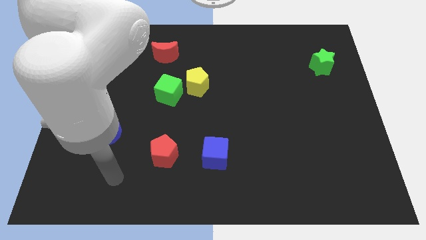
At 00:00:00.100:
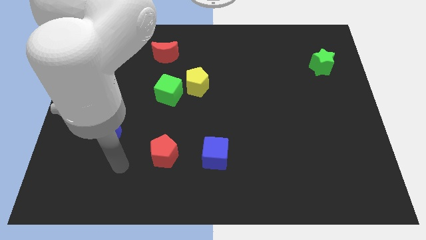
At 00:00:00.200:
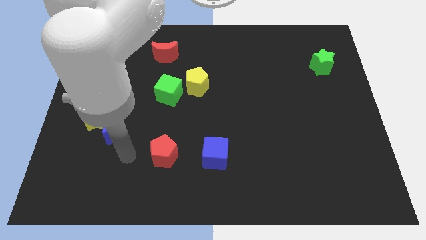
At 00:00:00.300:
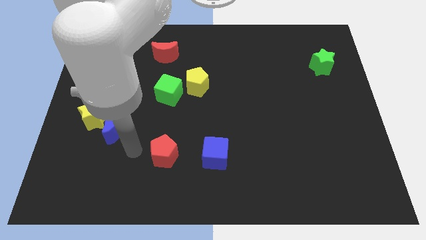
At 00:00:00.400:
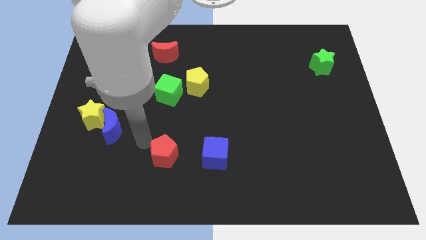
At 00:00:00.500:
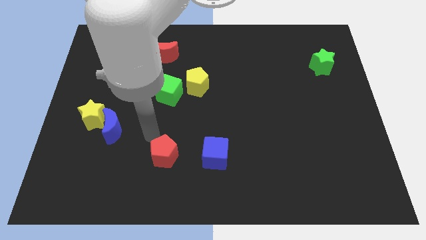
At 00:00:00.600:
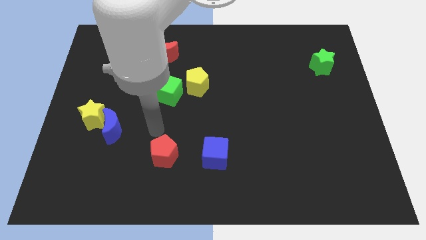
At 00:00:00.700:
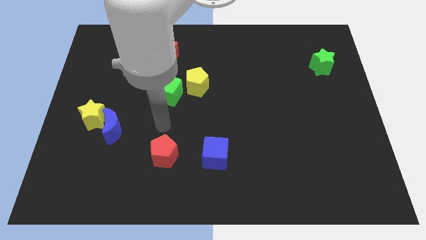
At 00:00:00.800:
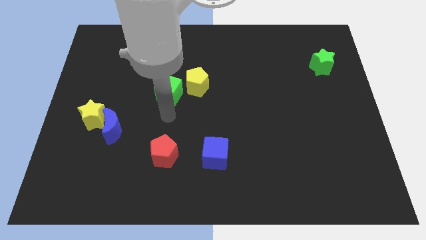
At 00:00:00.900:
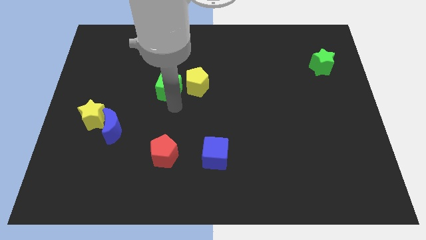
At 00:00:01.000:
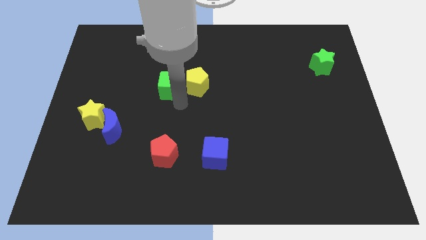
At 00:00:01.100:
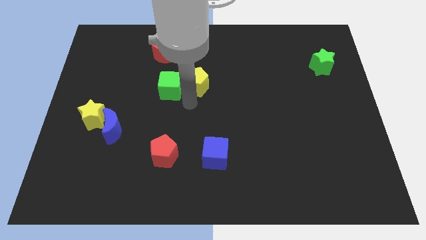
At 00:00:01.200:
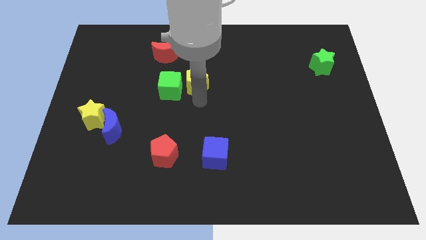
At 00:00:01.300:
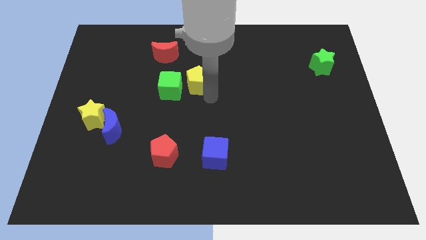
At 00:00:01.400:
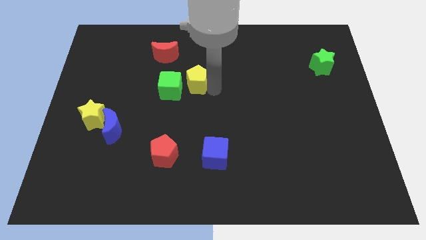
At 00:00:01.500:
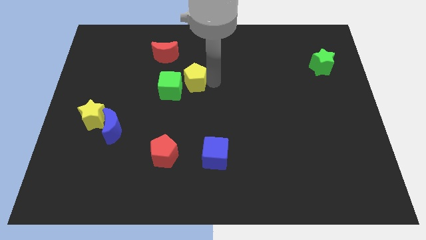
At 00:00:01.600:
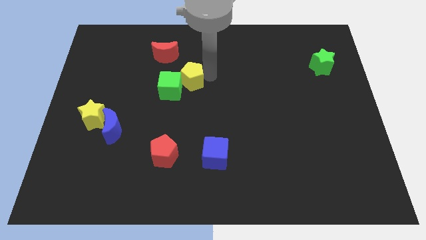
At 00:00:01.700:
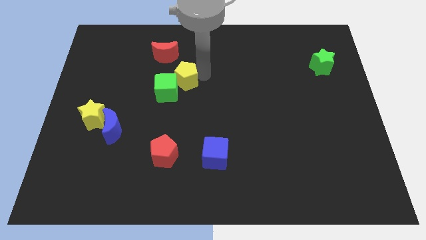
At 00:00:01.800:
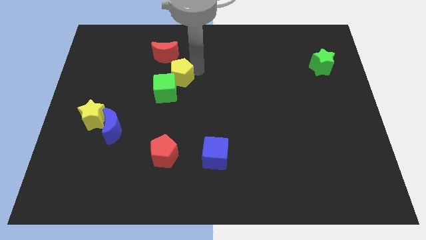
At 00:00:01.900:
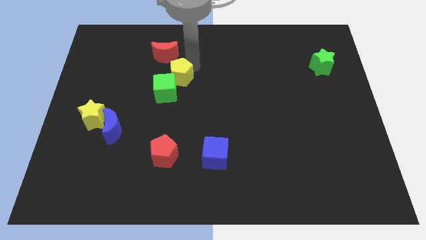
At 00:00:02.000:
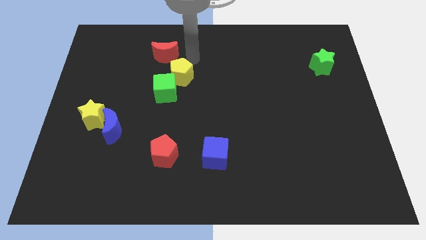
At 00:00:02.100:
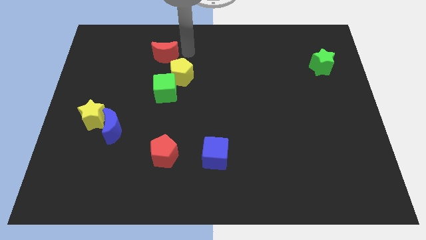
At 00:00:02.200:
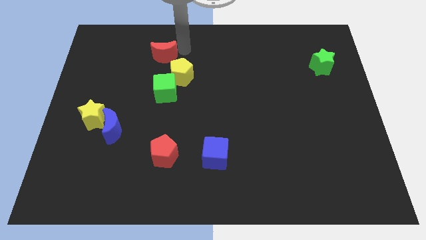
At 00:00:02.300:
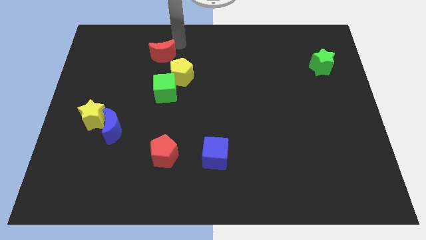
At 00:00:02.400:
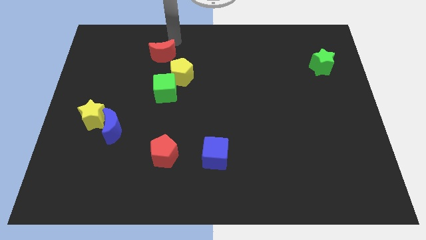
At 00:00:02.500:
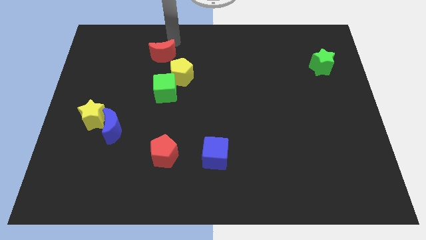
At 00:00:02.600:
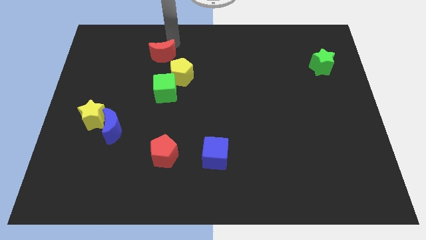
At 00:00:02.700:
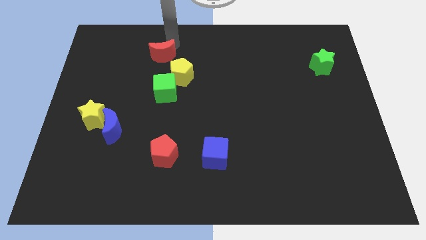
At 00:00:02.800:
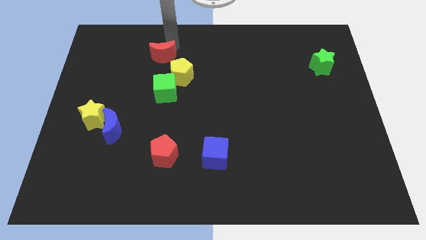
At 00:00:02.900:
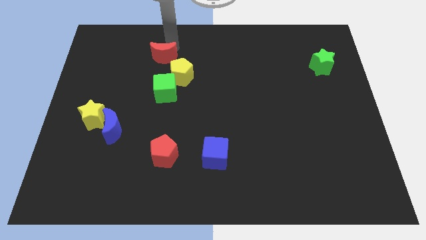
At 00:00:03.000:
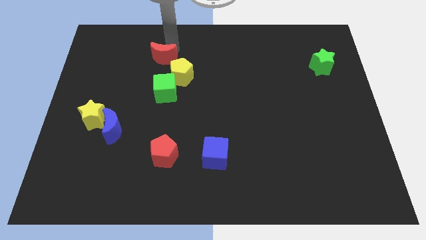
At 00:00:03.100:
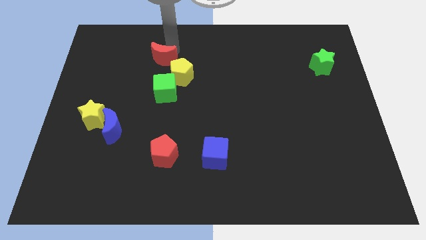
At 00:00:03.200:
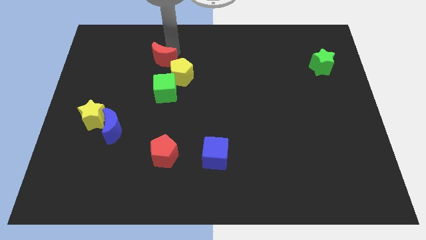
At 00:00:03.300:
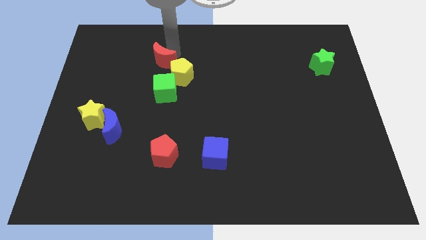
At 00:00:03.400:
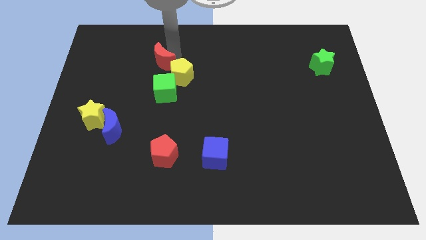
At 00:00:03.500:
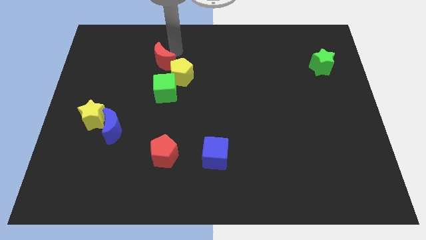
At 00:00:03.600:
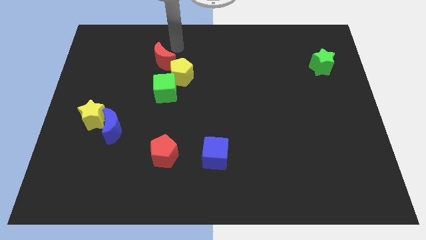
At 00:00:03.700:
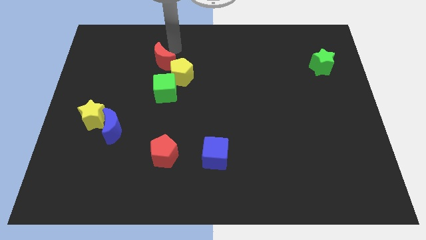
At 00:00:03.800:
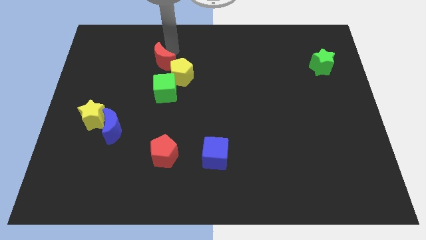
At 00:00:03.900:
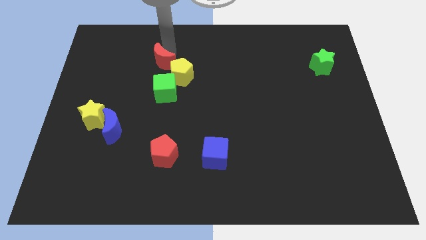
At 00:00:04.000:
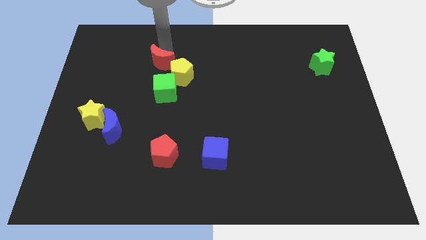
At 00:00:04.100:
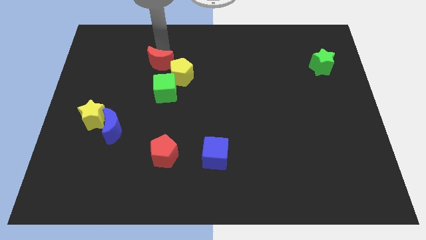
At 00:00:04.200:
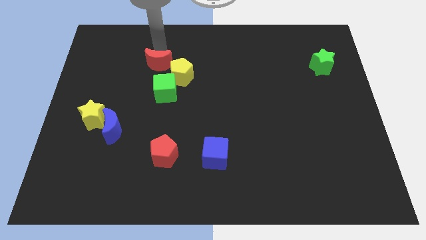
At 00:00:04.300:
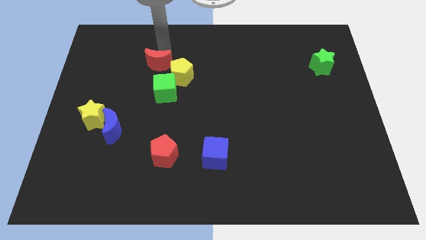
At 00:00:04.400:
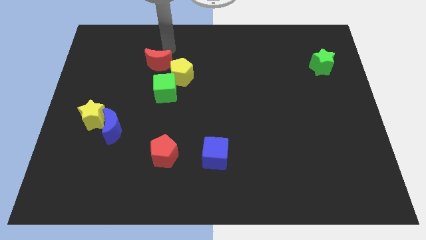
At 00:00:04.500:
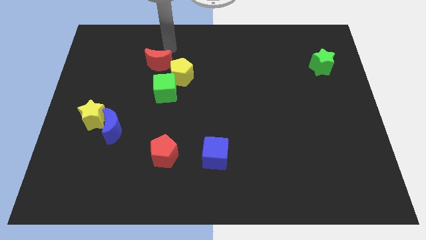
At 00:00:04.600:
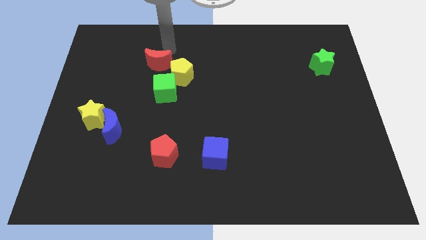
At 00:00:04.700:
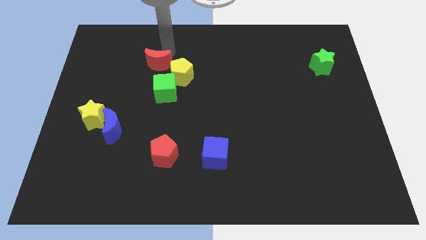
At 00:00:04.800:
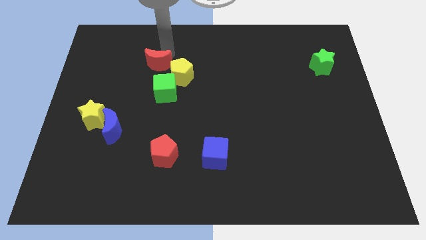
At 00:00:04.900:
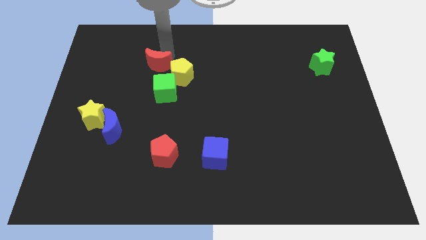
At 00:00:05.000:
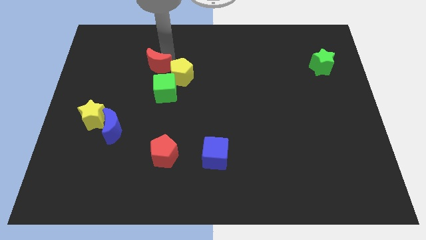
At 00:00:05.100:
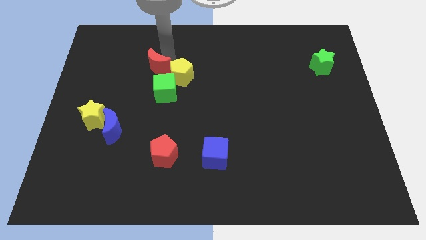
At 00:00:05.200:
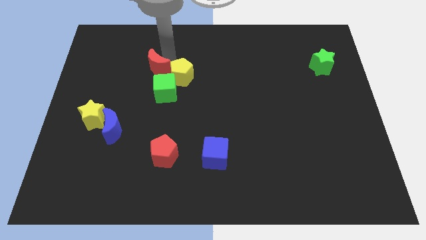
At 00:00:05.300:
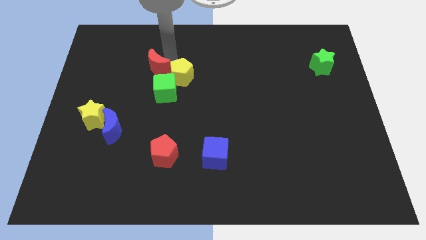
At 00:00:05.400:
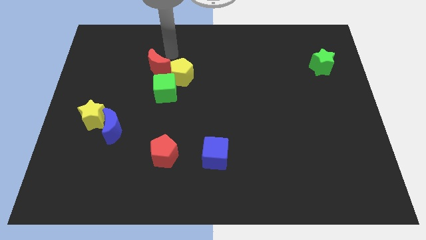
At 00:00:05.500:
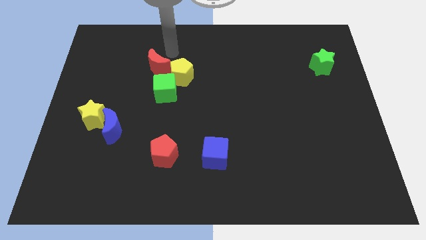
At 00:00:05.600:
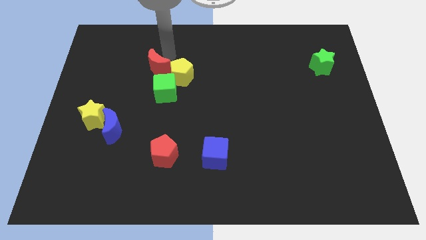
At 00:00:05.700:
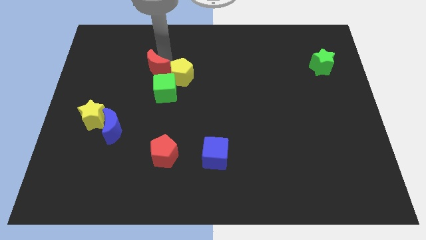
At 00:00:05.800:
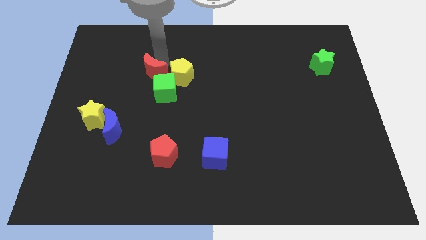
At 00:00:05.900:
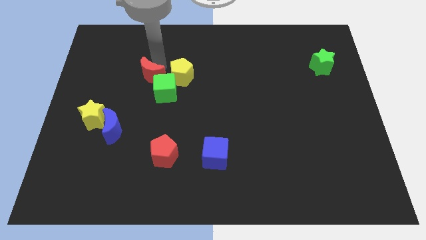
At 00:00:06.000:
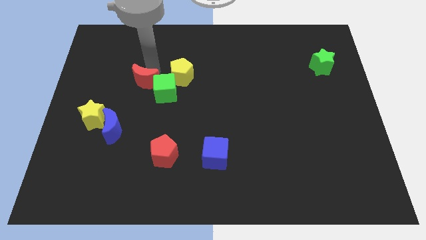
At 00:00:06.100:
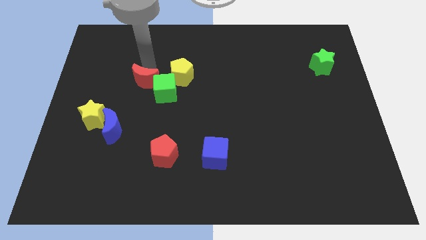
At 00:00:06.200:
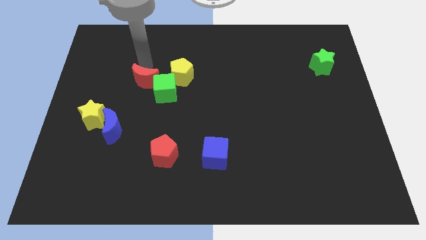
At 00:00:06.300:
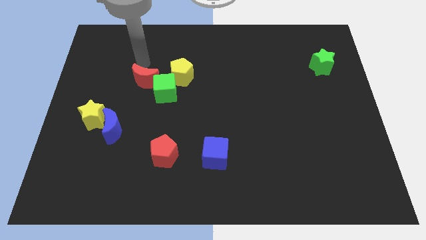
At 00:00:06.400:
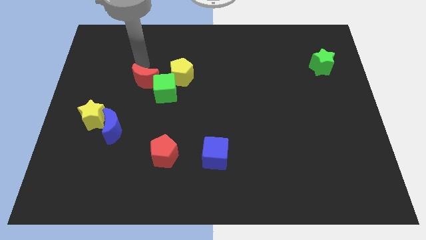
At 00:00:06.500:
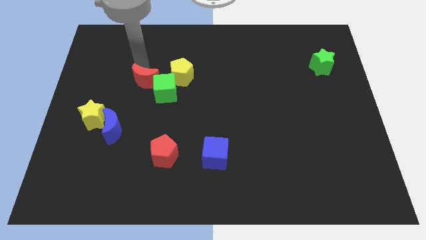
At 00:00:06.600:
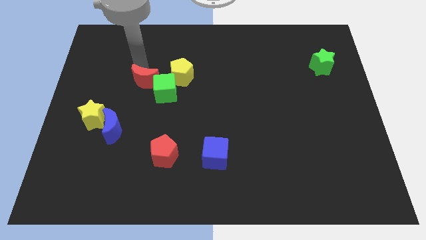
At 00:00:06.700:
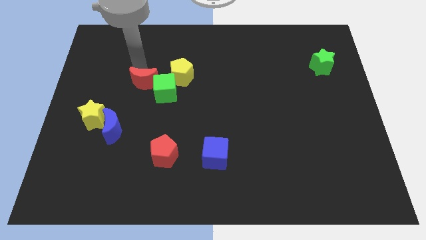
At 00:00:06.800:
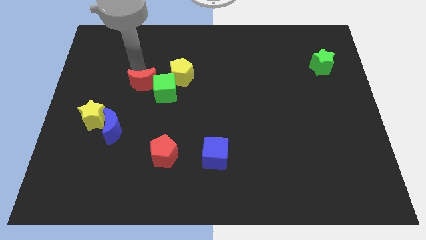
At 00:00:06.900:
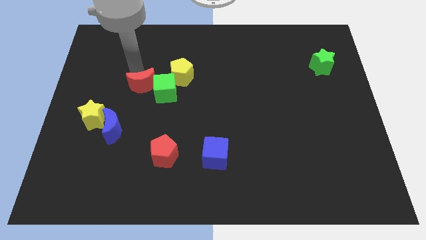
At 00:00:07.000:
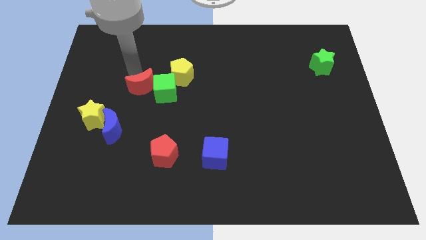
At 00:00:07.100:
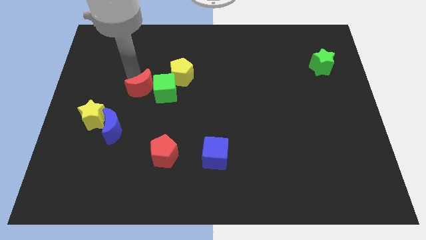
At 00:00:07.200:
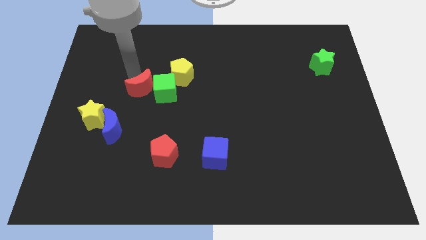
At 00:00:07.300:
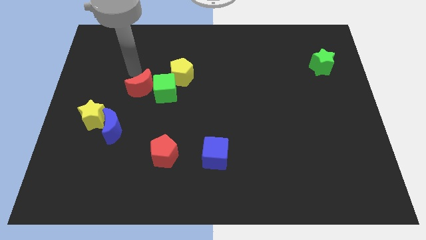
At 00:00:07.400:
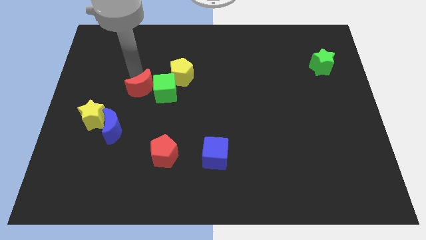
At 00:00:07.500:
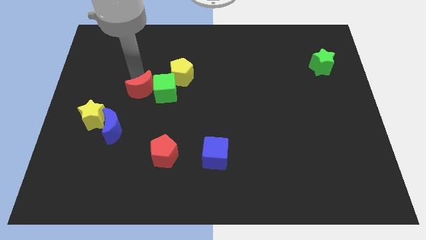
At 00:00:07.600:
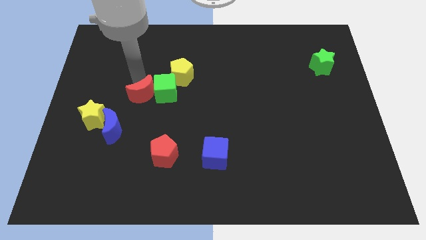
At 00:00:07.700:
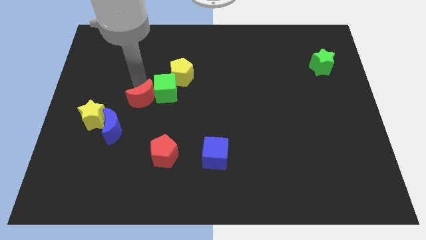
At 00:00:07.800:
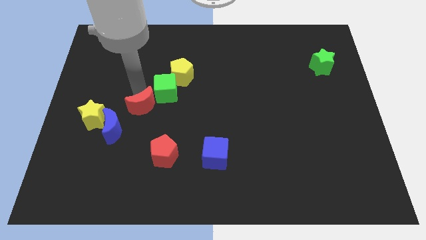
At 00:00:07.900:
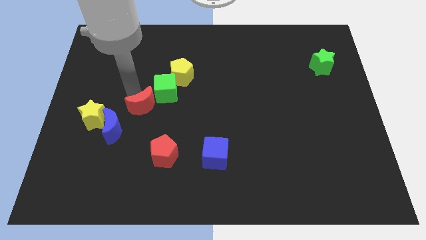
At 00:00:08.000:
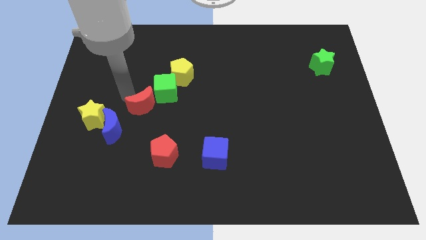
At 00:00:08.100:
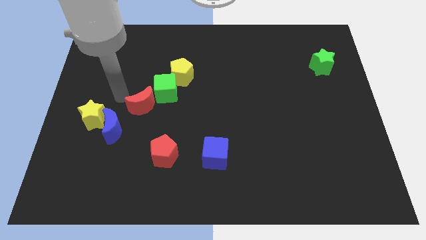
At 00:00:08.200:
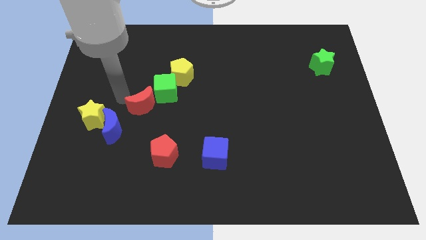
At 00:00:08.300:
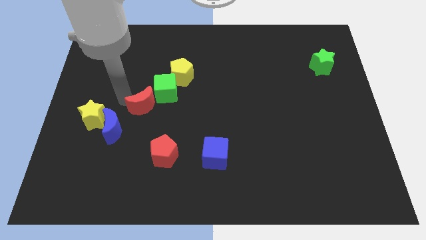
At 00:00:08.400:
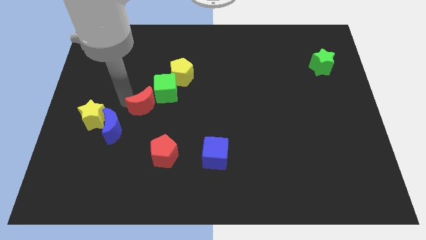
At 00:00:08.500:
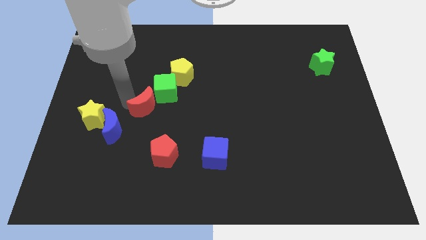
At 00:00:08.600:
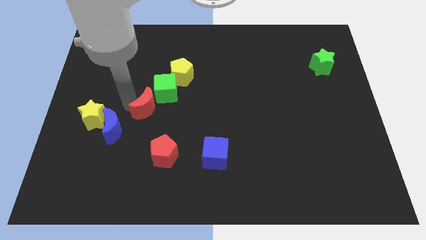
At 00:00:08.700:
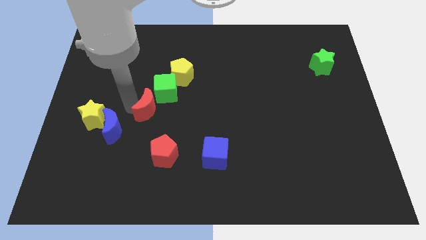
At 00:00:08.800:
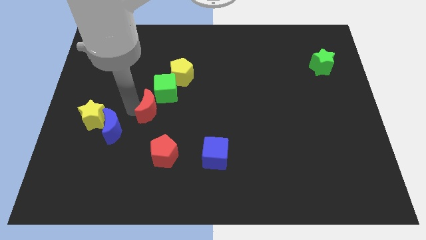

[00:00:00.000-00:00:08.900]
slide the red moon to the top side of the red pentagon
